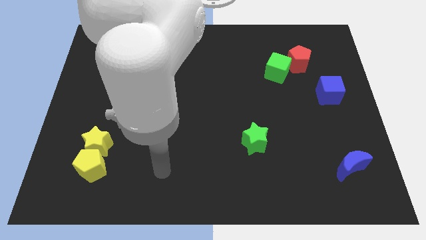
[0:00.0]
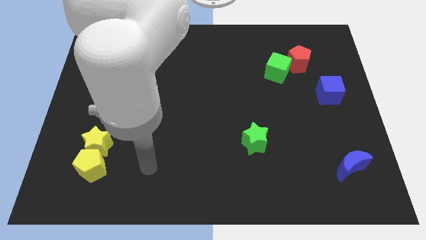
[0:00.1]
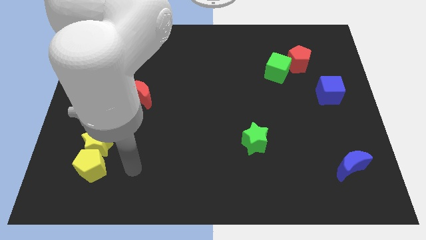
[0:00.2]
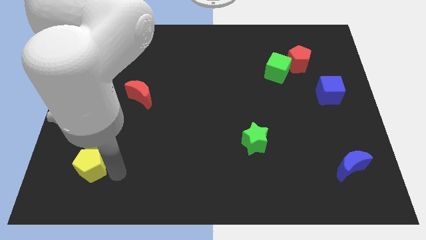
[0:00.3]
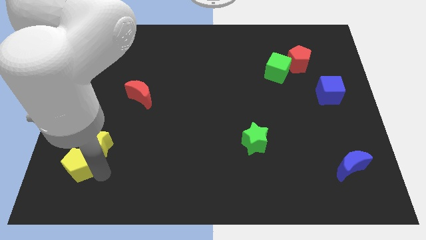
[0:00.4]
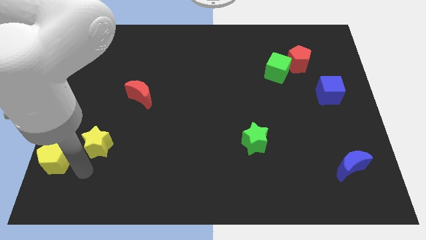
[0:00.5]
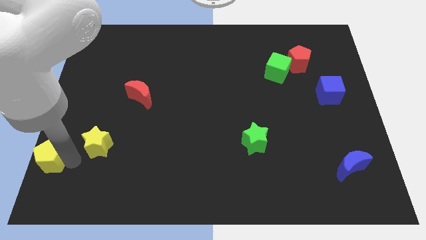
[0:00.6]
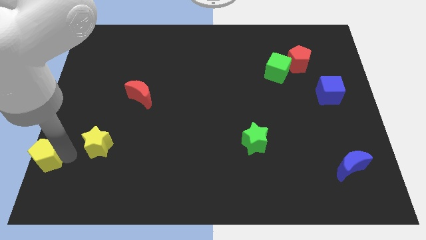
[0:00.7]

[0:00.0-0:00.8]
separate the yellow star from the yellow pentagon

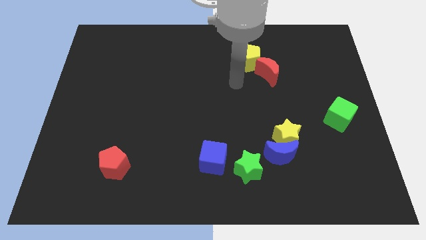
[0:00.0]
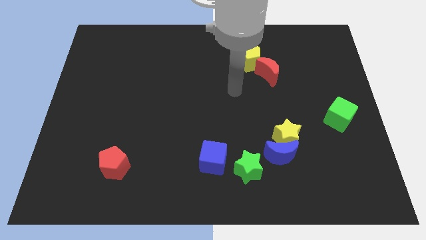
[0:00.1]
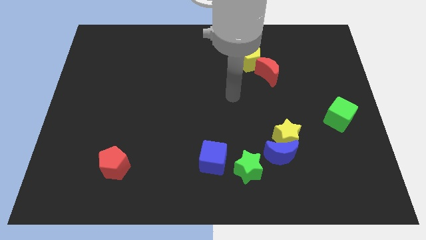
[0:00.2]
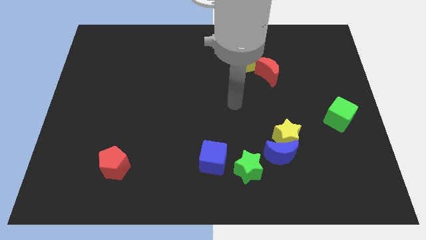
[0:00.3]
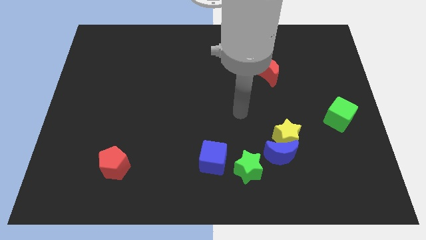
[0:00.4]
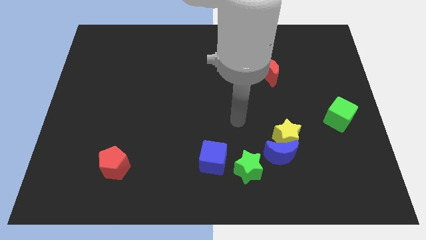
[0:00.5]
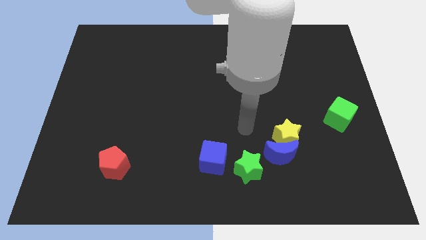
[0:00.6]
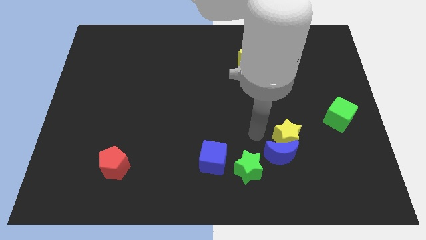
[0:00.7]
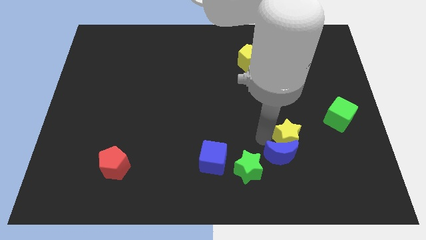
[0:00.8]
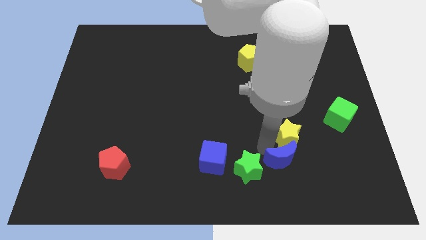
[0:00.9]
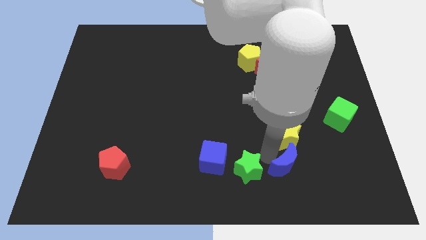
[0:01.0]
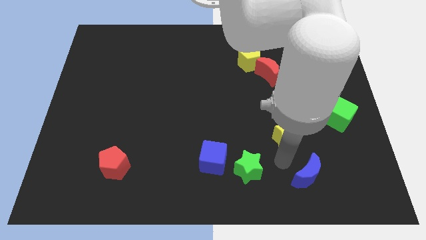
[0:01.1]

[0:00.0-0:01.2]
pull the yellow star apart from the blue moon

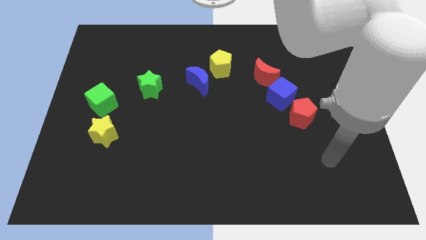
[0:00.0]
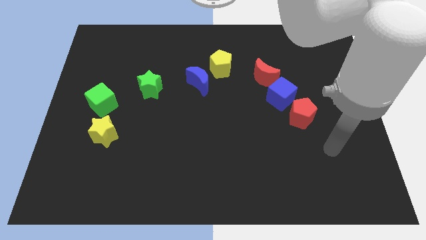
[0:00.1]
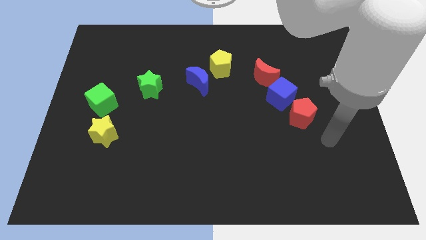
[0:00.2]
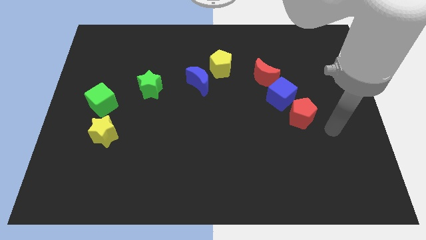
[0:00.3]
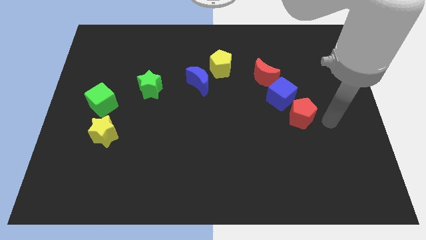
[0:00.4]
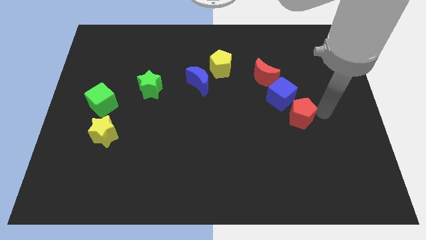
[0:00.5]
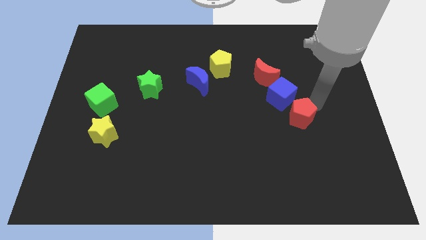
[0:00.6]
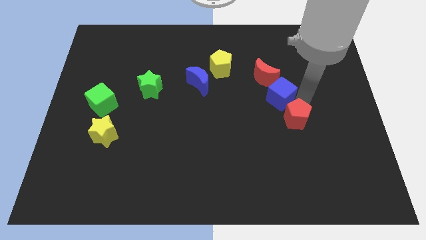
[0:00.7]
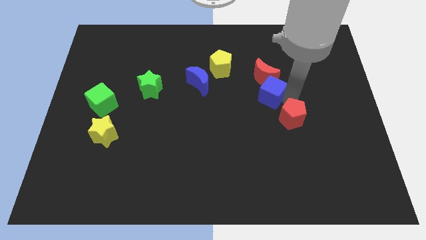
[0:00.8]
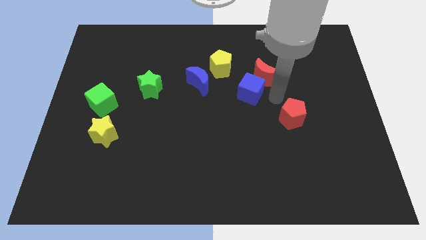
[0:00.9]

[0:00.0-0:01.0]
move the red pentagon away from the blue cube

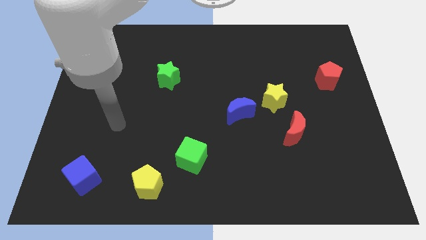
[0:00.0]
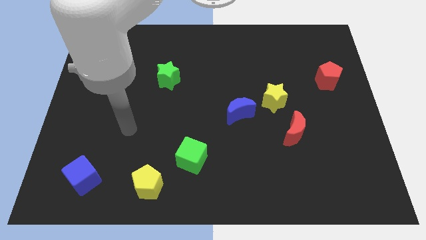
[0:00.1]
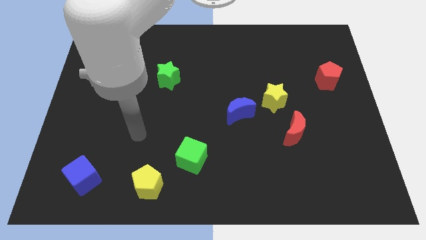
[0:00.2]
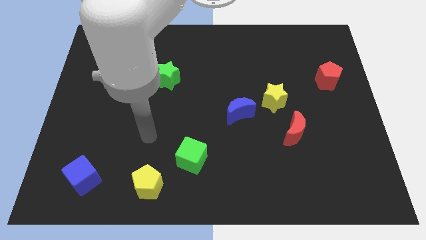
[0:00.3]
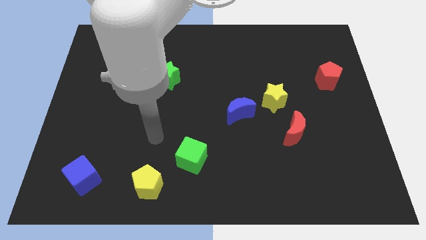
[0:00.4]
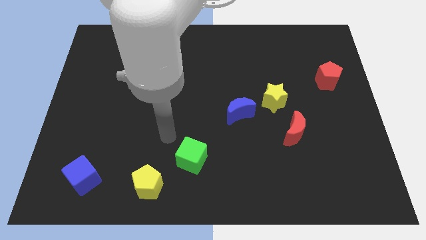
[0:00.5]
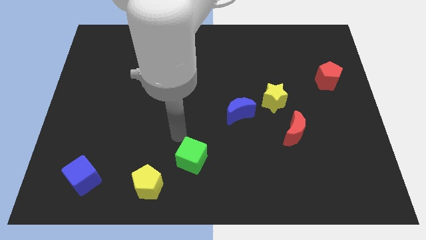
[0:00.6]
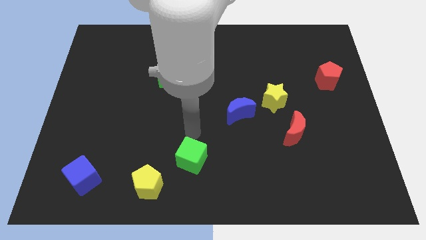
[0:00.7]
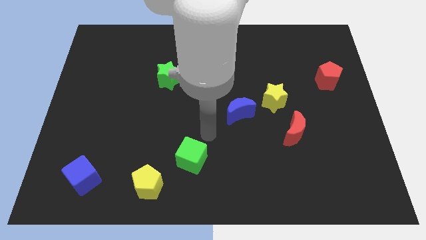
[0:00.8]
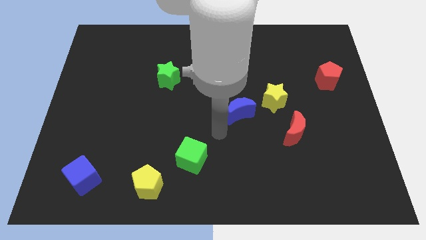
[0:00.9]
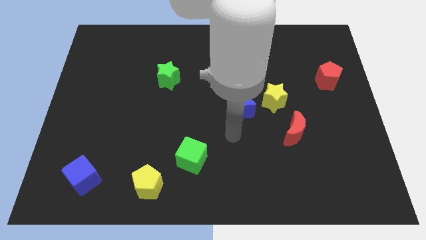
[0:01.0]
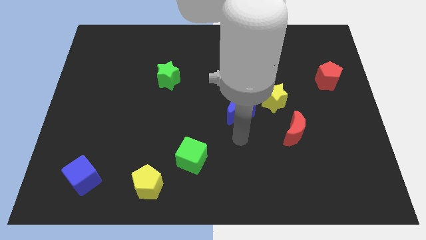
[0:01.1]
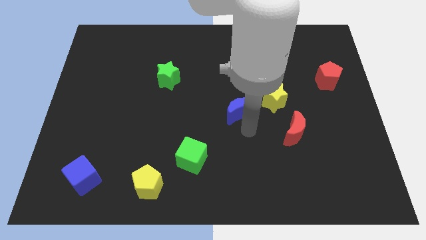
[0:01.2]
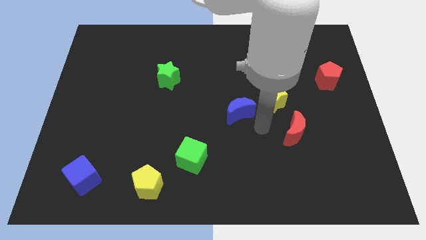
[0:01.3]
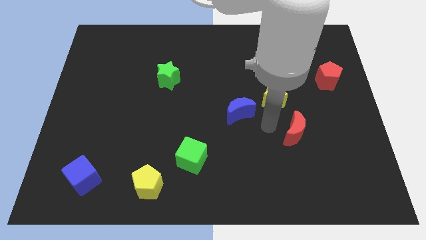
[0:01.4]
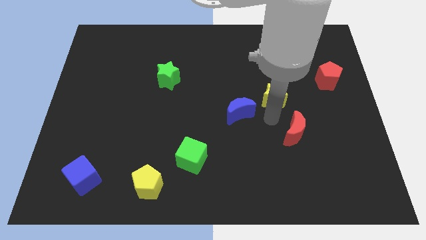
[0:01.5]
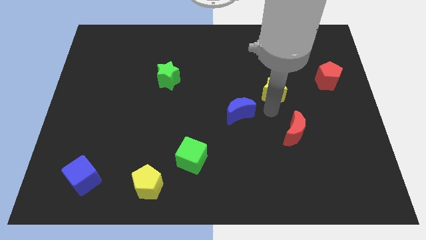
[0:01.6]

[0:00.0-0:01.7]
move the blue moon away from the yellow star

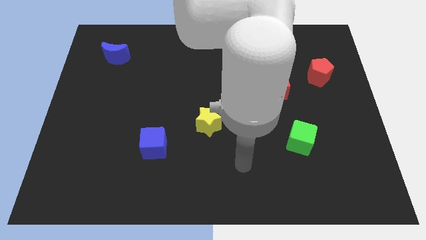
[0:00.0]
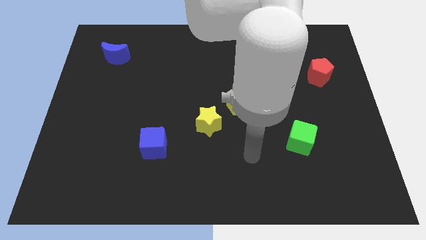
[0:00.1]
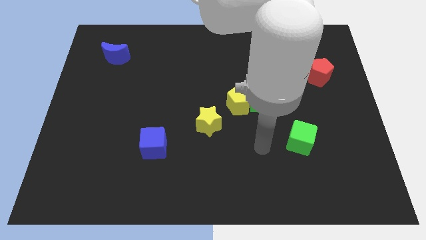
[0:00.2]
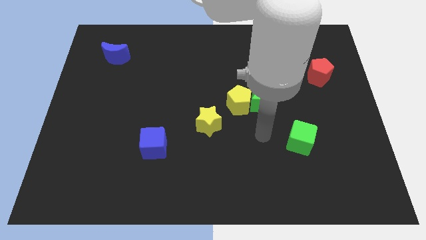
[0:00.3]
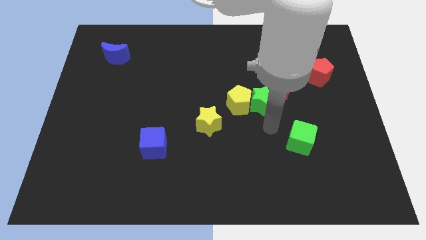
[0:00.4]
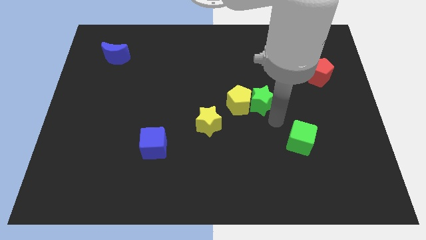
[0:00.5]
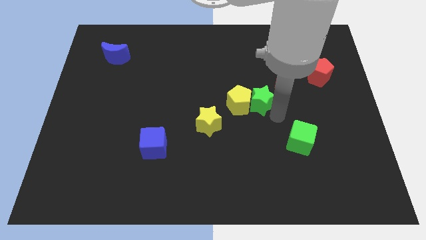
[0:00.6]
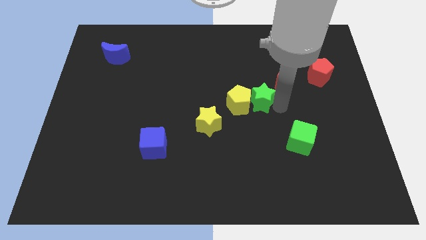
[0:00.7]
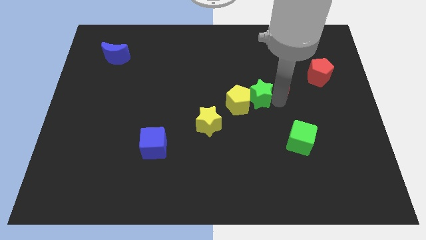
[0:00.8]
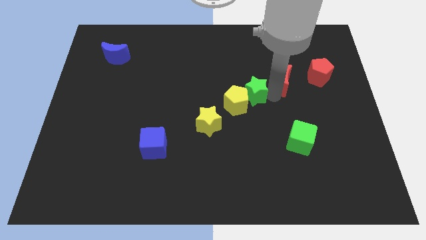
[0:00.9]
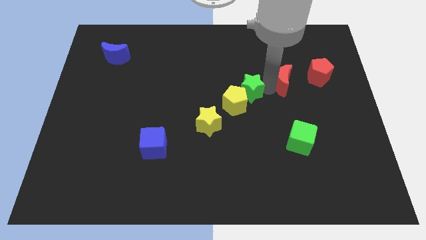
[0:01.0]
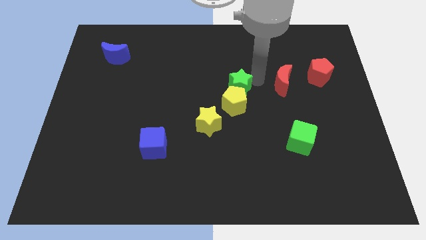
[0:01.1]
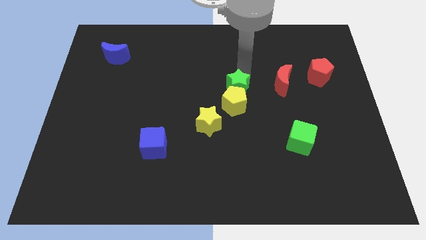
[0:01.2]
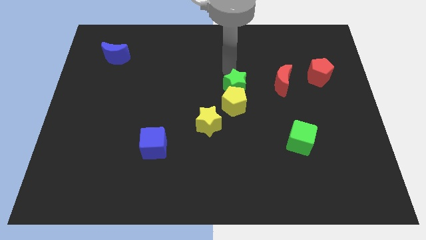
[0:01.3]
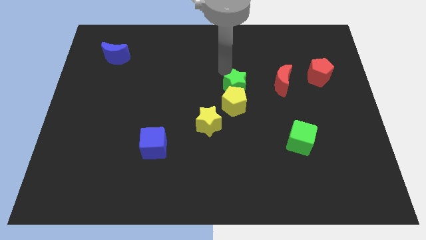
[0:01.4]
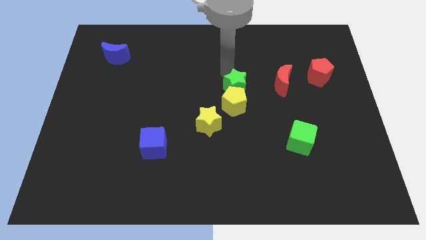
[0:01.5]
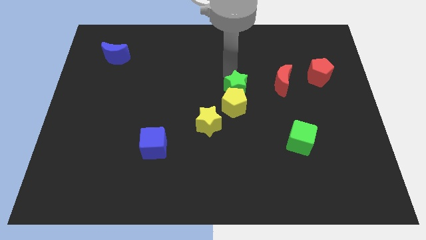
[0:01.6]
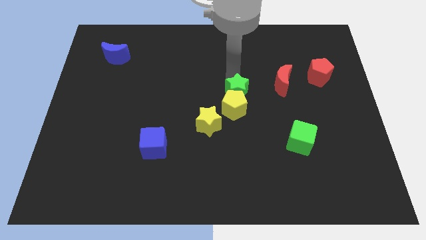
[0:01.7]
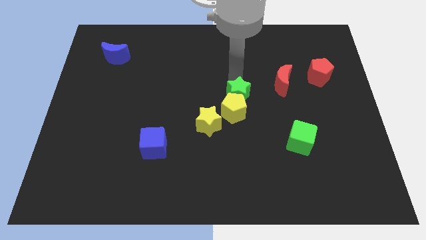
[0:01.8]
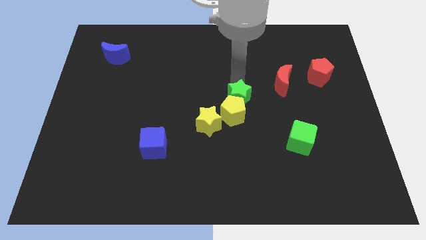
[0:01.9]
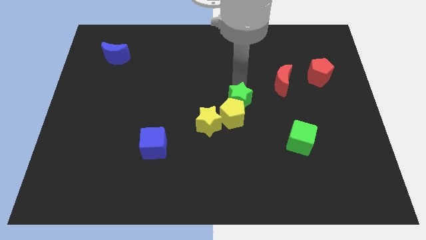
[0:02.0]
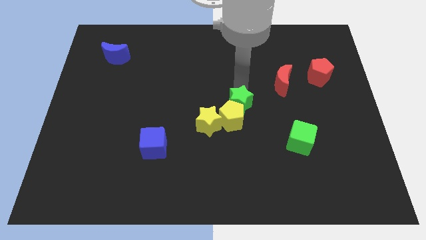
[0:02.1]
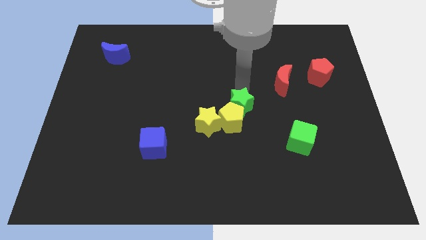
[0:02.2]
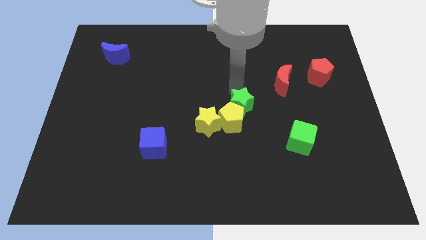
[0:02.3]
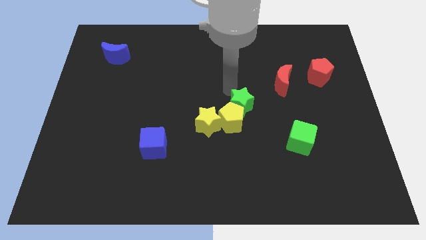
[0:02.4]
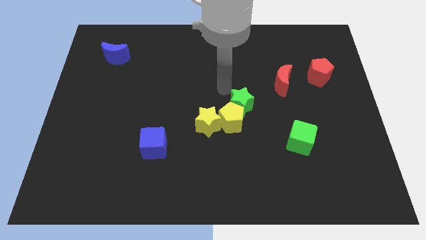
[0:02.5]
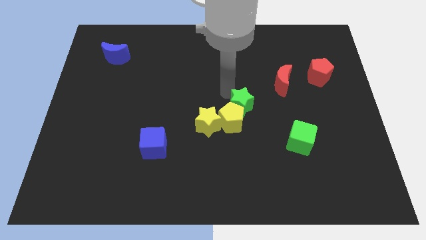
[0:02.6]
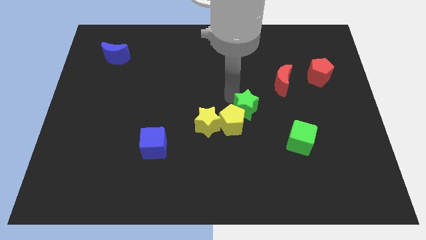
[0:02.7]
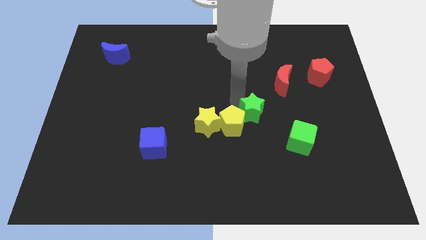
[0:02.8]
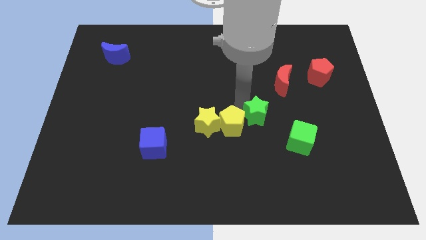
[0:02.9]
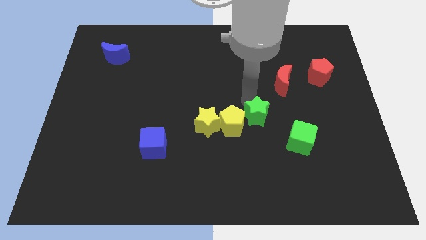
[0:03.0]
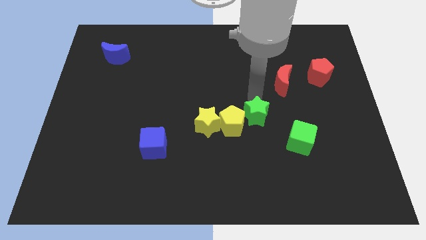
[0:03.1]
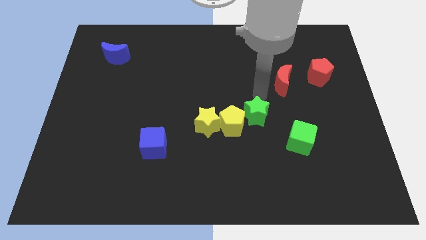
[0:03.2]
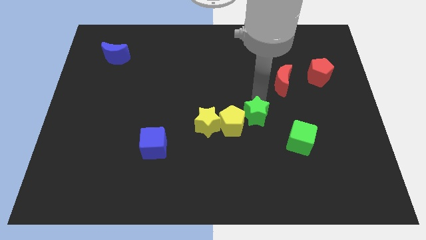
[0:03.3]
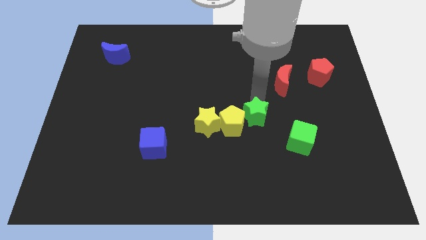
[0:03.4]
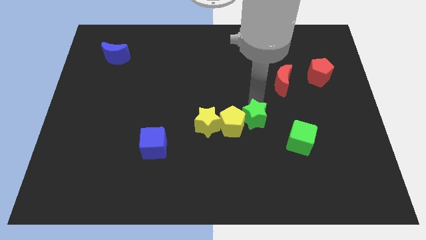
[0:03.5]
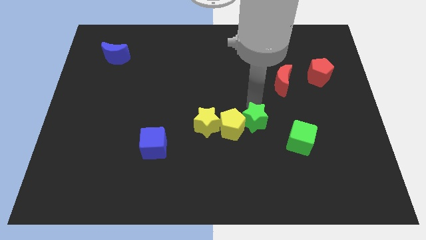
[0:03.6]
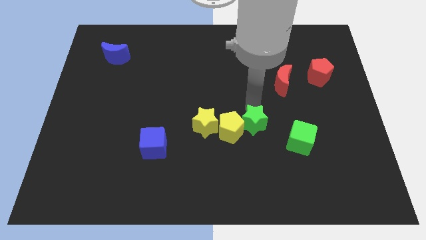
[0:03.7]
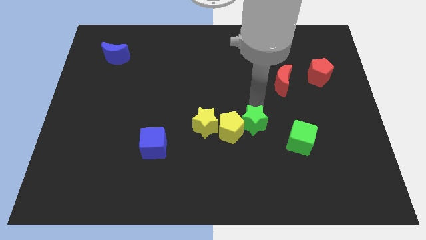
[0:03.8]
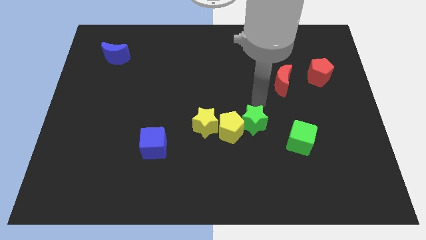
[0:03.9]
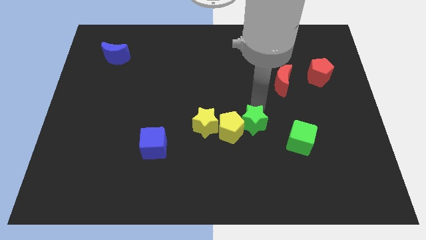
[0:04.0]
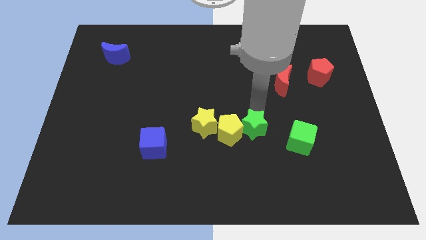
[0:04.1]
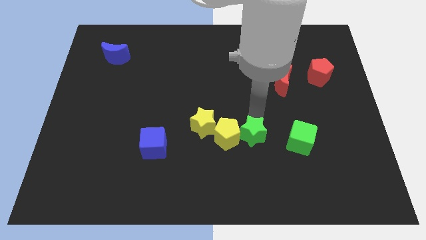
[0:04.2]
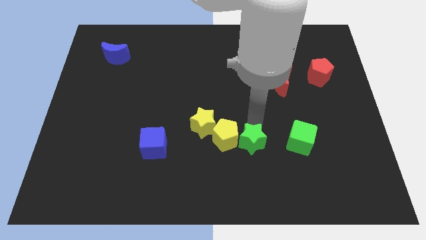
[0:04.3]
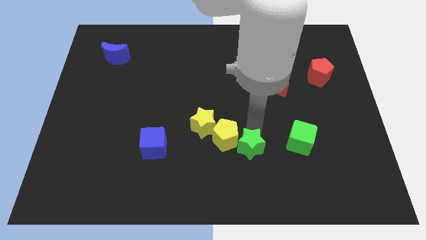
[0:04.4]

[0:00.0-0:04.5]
move the green star away from the yellow pentagon and red moon

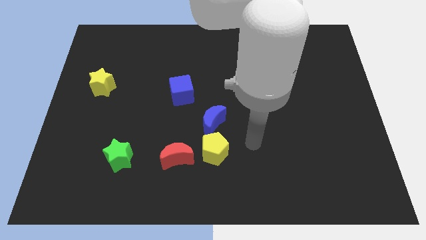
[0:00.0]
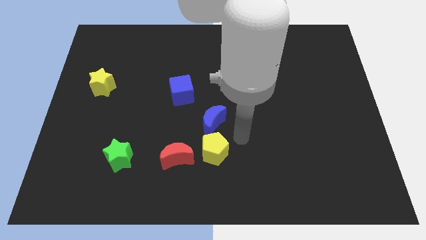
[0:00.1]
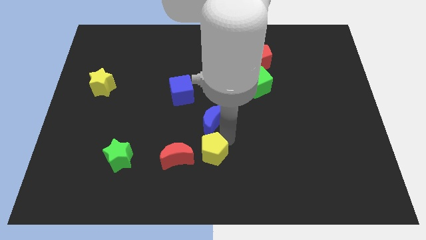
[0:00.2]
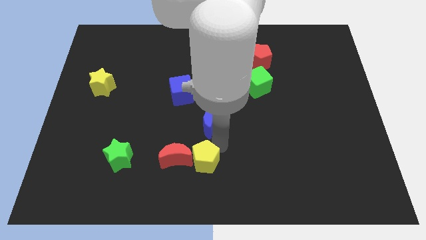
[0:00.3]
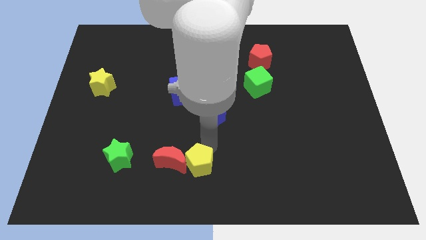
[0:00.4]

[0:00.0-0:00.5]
pull the blue moon apart from the yellow pentagon
